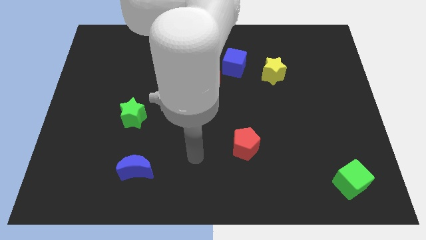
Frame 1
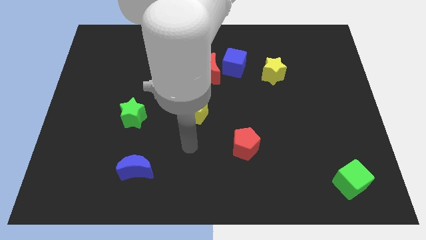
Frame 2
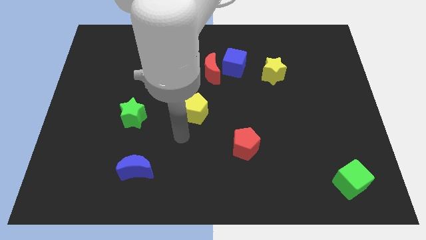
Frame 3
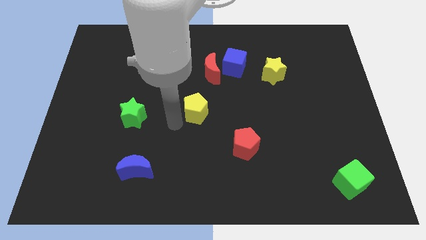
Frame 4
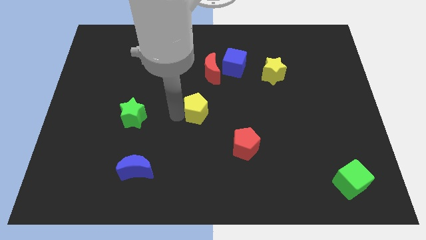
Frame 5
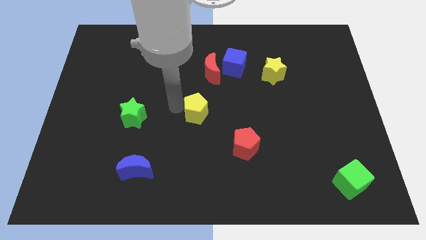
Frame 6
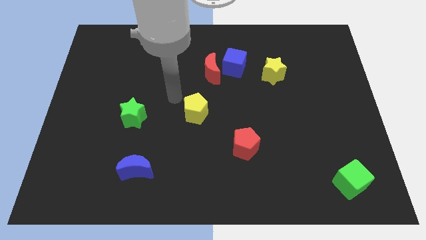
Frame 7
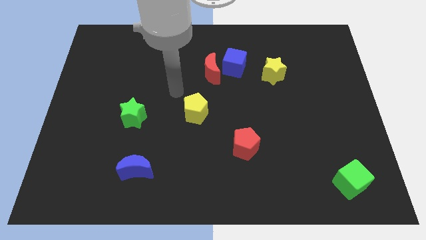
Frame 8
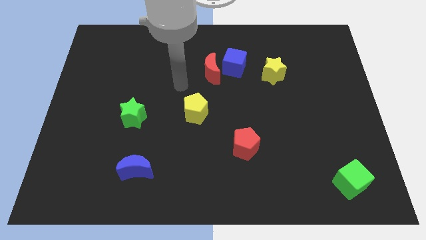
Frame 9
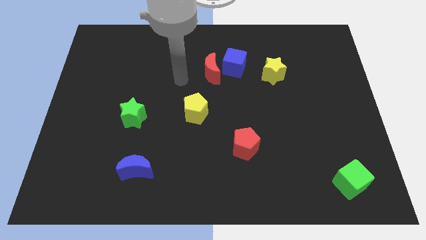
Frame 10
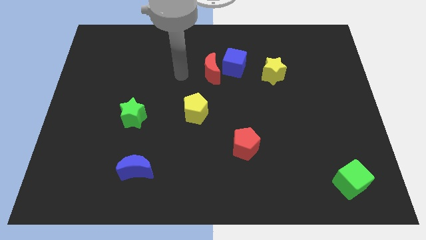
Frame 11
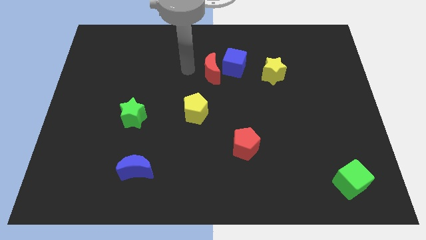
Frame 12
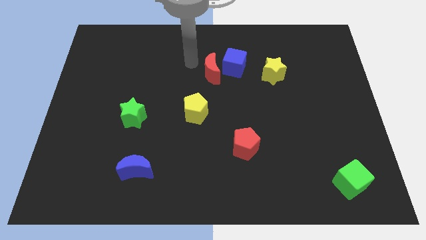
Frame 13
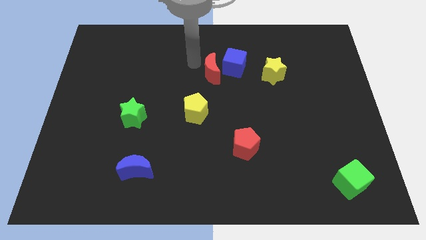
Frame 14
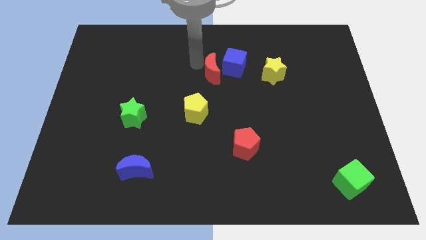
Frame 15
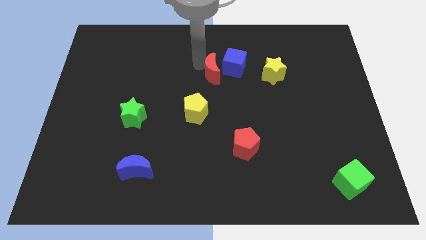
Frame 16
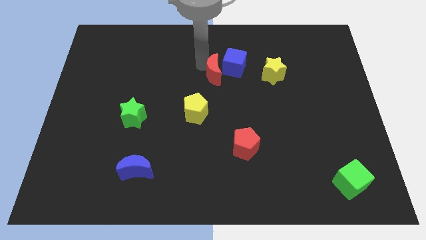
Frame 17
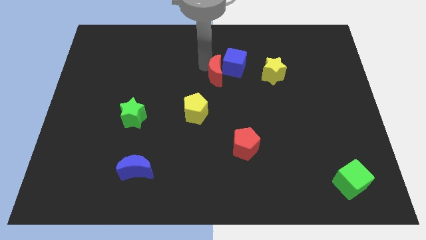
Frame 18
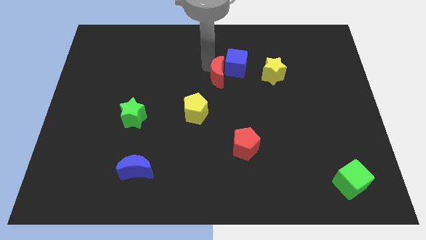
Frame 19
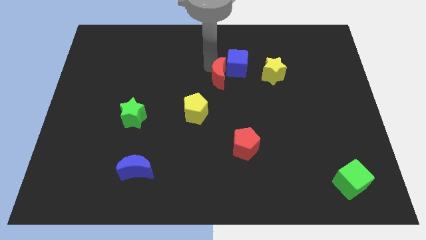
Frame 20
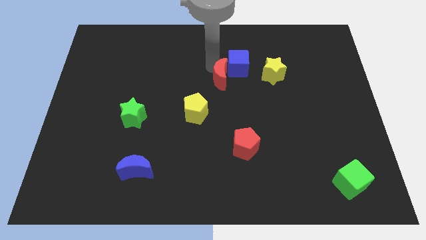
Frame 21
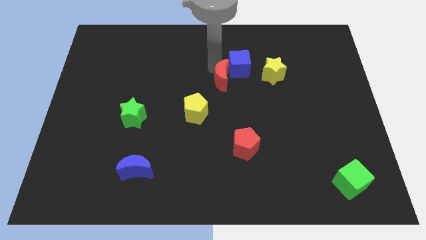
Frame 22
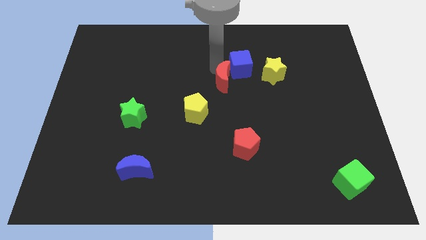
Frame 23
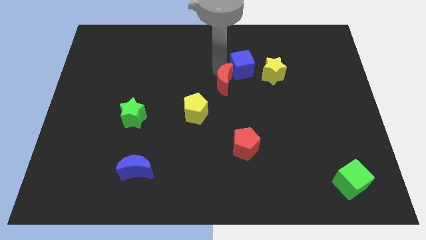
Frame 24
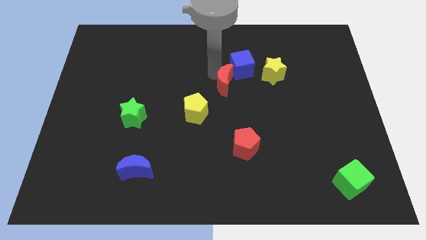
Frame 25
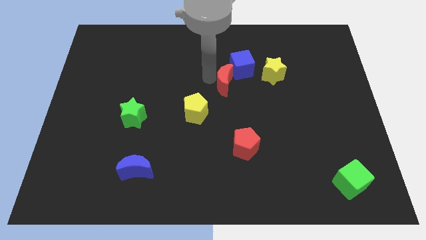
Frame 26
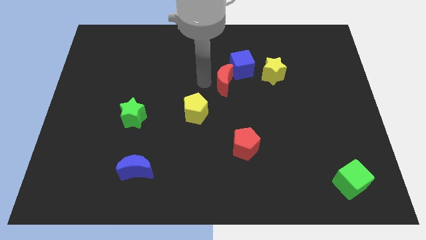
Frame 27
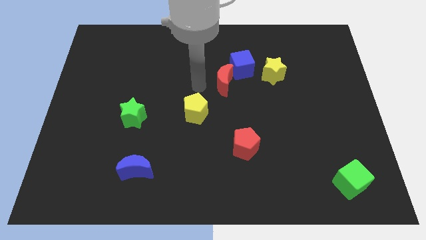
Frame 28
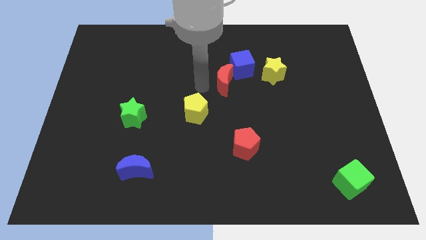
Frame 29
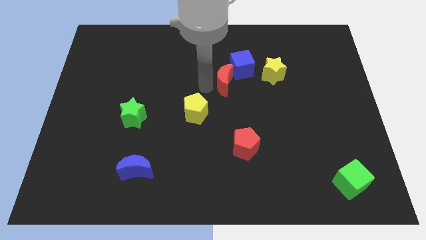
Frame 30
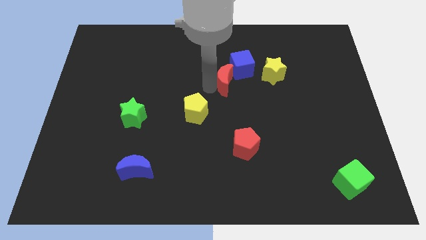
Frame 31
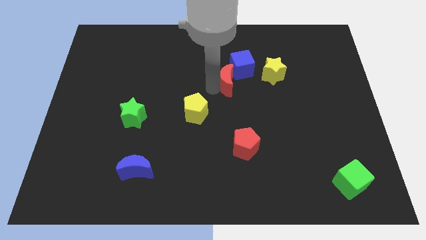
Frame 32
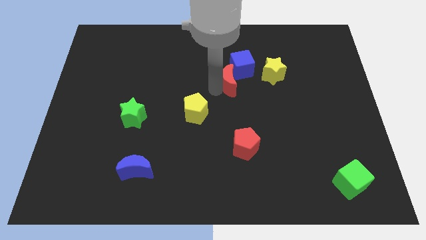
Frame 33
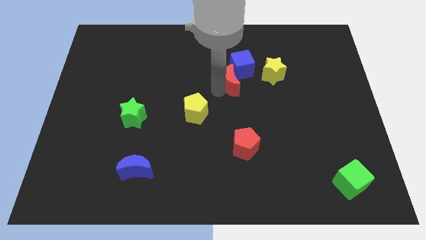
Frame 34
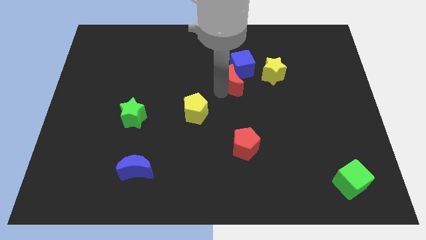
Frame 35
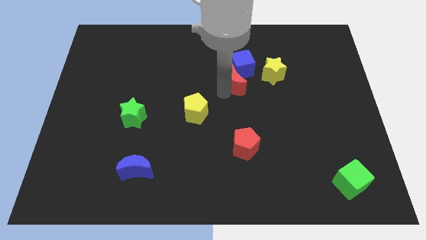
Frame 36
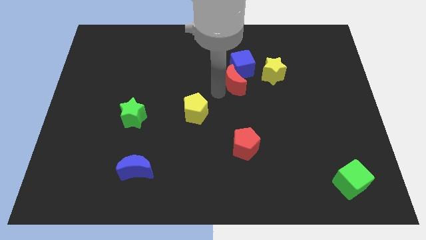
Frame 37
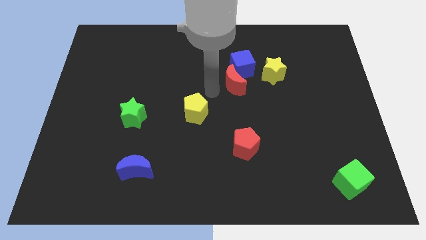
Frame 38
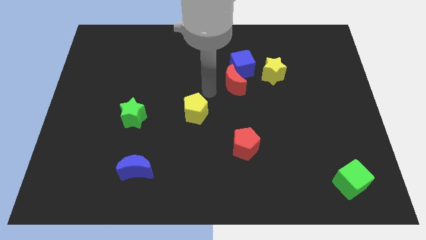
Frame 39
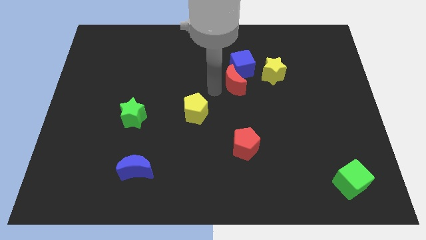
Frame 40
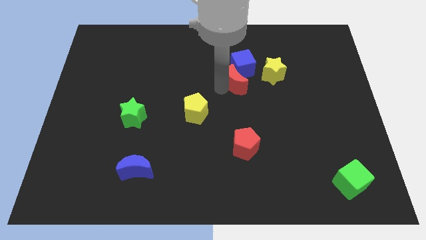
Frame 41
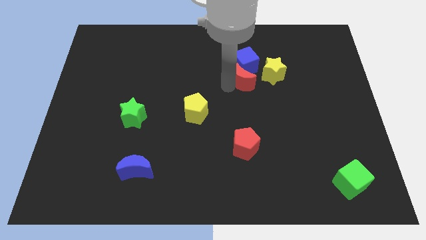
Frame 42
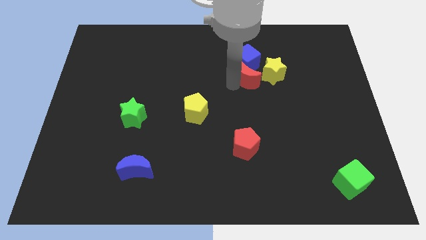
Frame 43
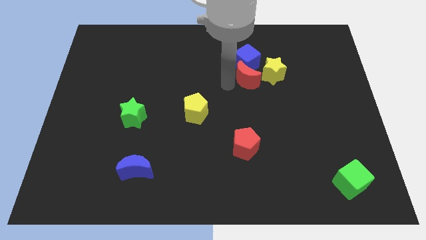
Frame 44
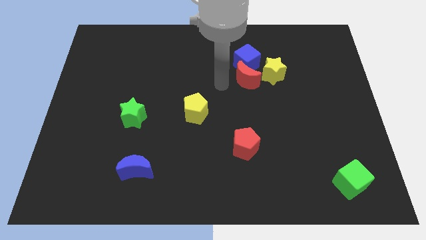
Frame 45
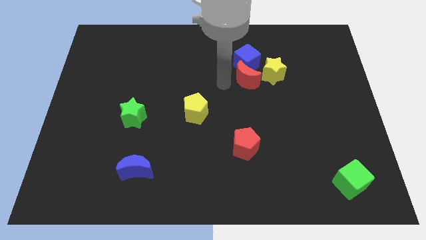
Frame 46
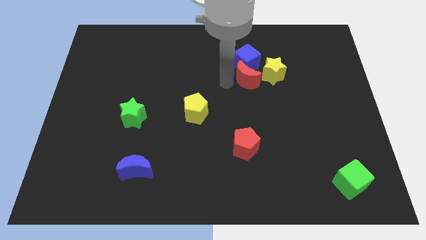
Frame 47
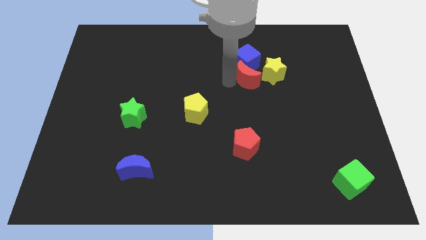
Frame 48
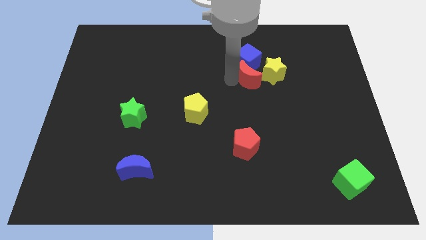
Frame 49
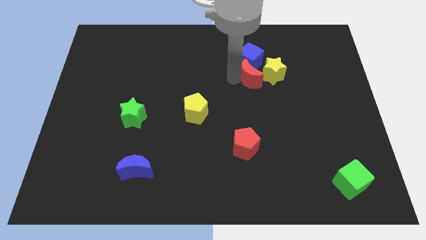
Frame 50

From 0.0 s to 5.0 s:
push the red moon towards the yellow star

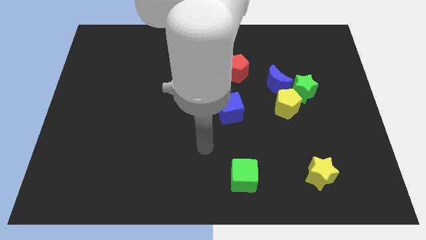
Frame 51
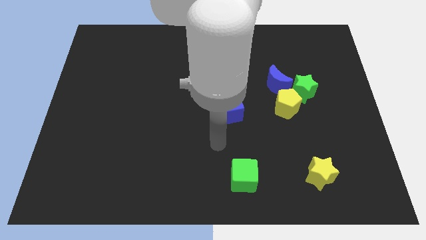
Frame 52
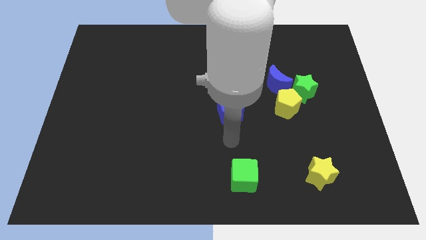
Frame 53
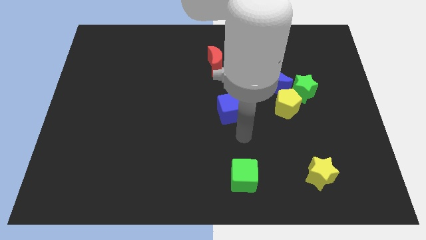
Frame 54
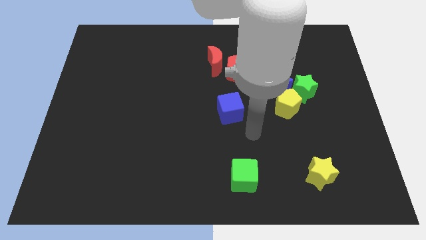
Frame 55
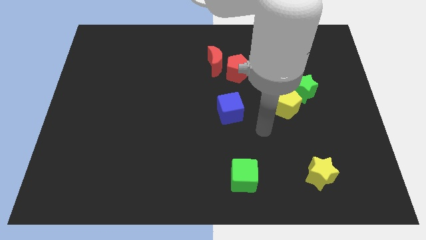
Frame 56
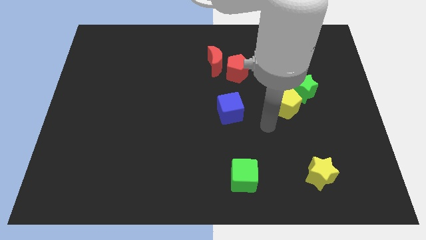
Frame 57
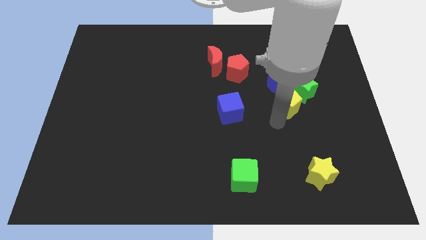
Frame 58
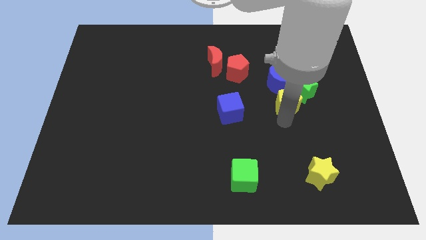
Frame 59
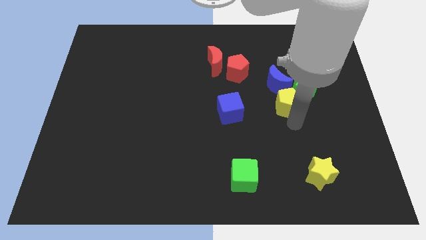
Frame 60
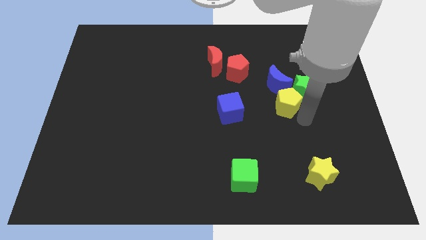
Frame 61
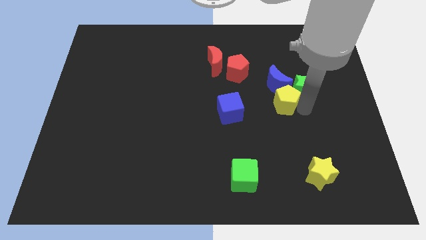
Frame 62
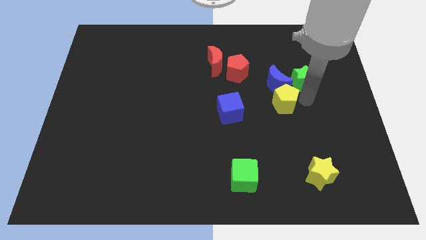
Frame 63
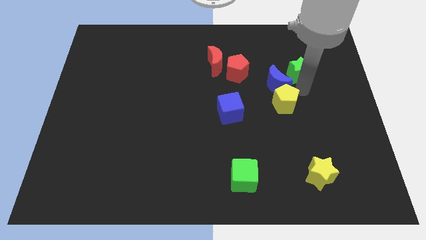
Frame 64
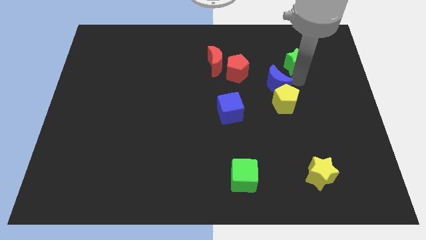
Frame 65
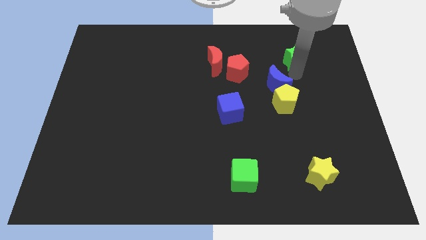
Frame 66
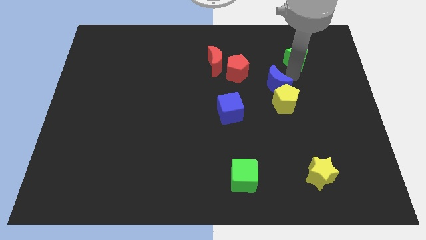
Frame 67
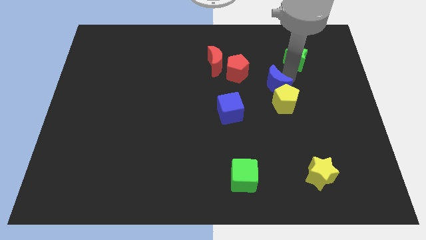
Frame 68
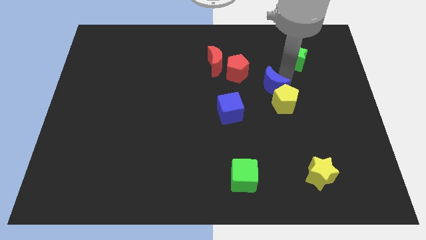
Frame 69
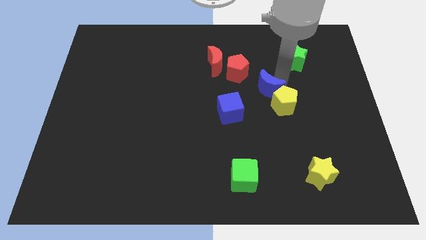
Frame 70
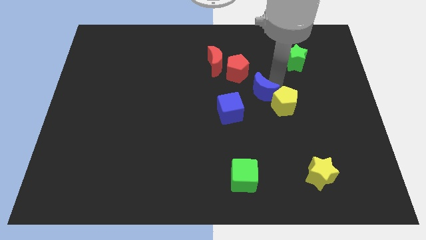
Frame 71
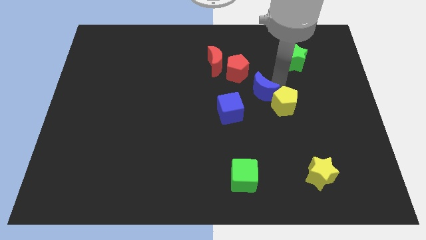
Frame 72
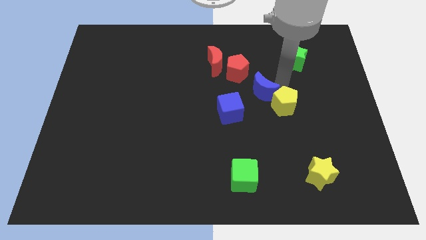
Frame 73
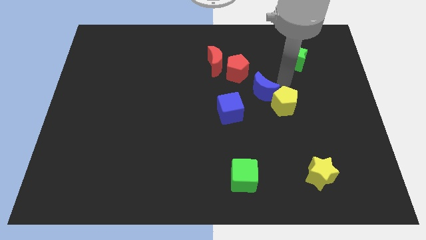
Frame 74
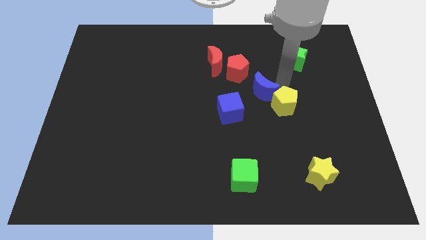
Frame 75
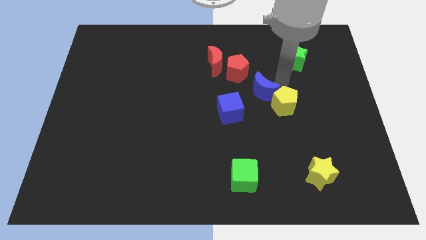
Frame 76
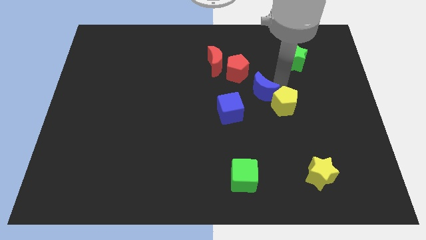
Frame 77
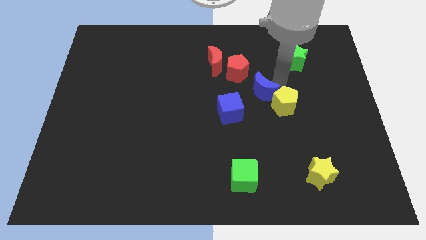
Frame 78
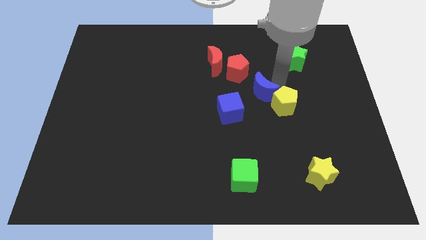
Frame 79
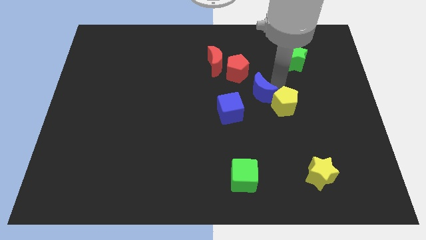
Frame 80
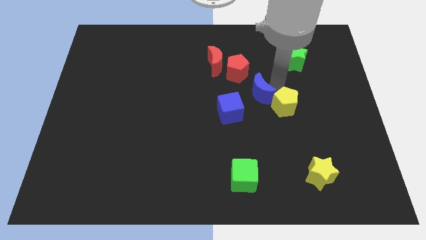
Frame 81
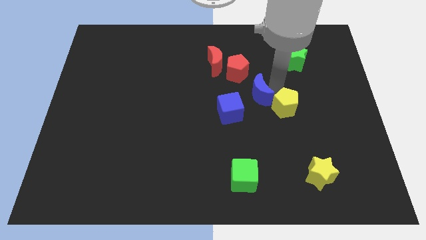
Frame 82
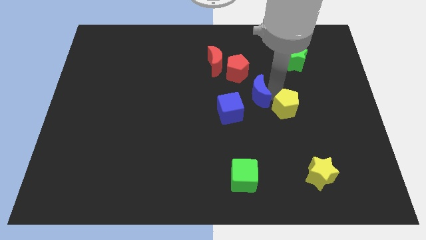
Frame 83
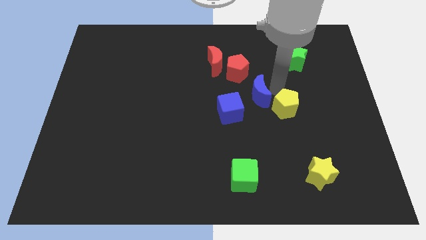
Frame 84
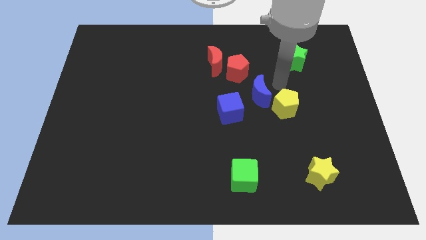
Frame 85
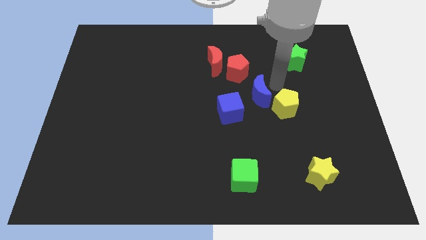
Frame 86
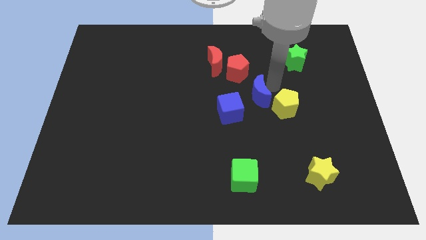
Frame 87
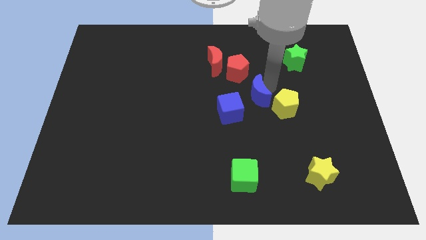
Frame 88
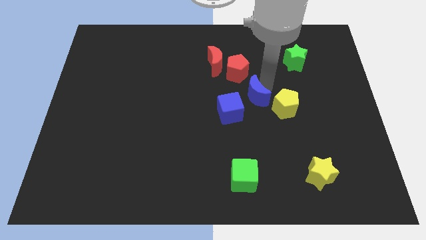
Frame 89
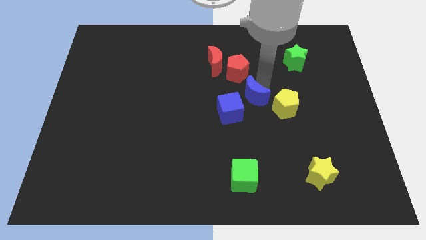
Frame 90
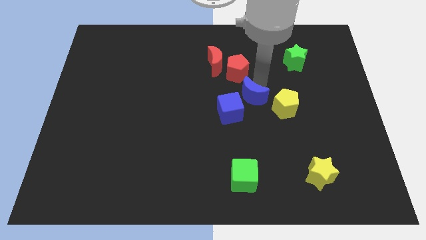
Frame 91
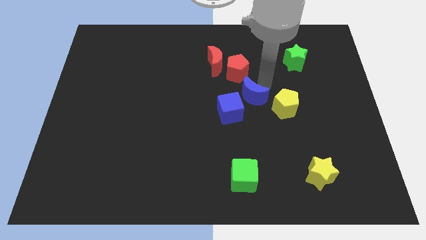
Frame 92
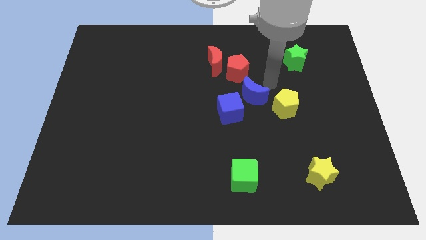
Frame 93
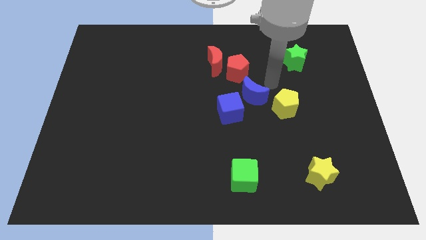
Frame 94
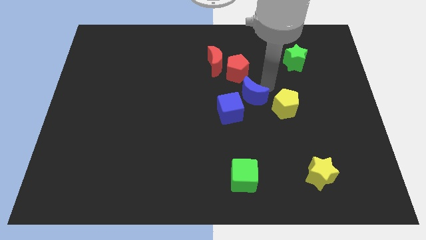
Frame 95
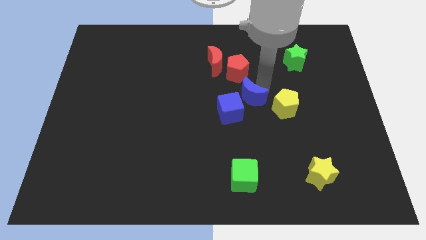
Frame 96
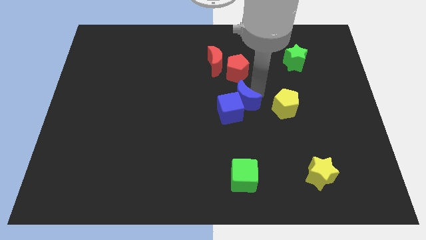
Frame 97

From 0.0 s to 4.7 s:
push the blue moon next to the blue cube
